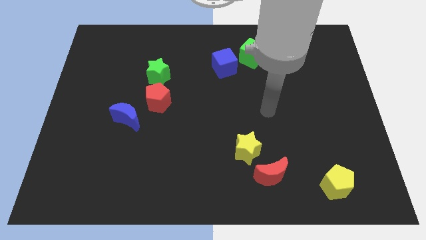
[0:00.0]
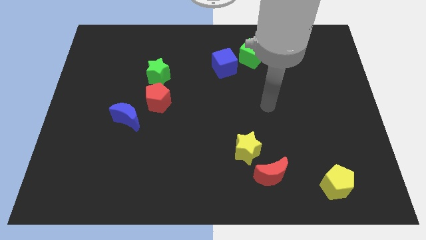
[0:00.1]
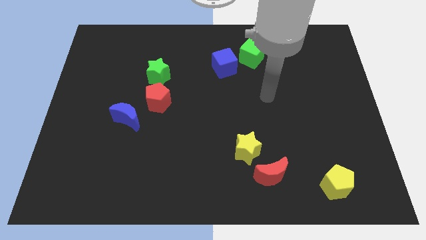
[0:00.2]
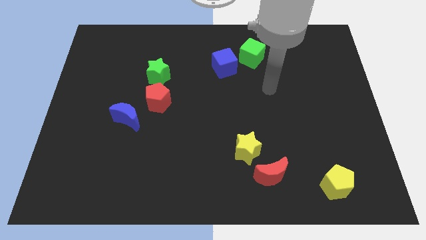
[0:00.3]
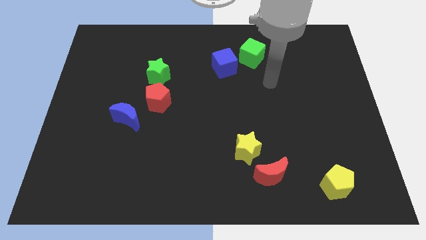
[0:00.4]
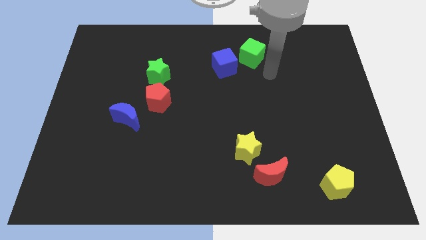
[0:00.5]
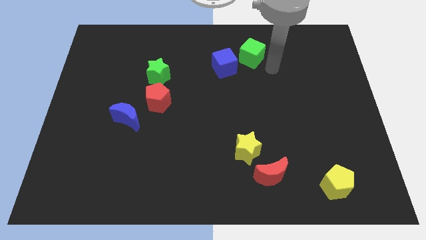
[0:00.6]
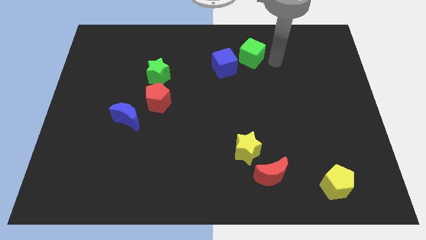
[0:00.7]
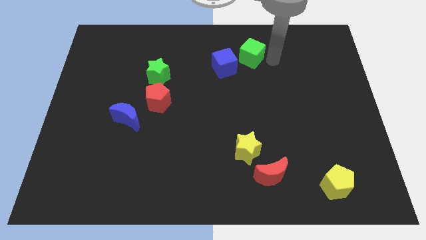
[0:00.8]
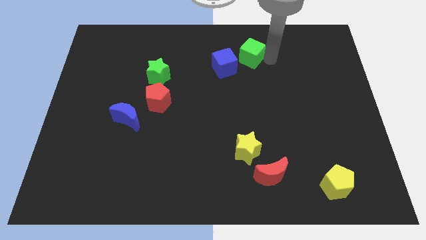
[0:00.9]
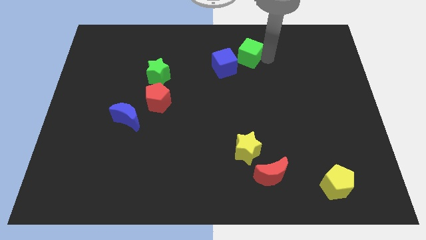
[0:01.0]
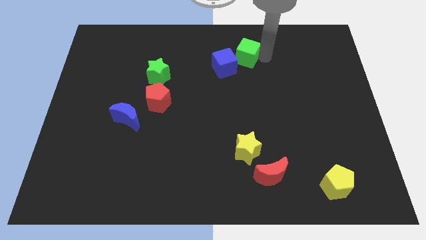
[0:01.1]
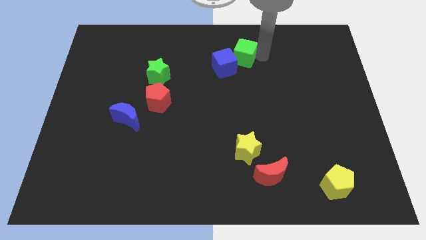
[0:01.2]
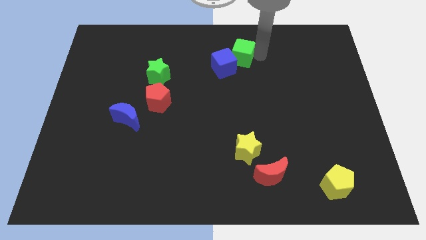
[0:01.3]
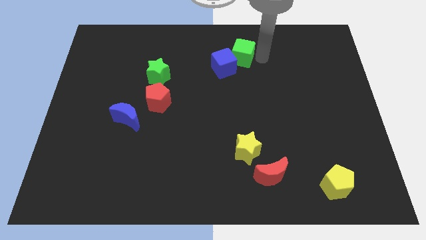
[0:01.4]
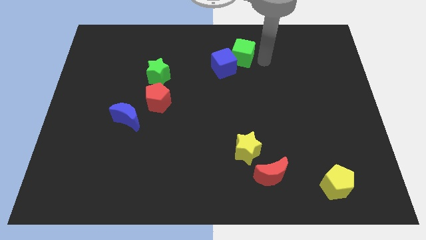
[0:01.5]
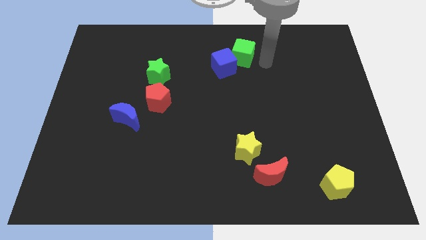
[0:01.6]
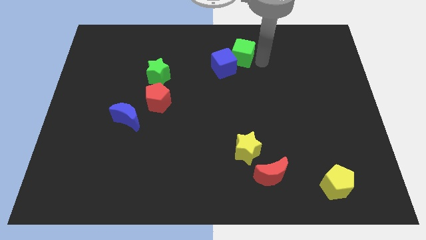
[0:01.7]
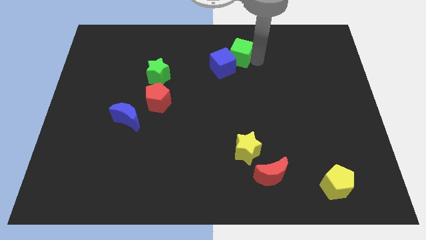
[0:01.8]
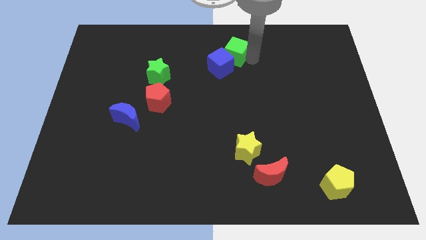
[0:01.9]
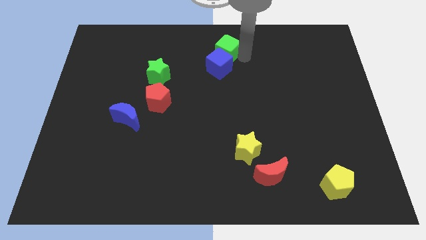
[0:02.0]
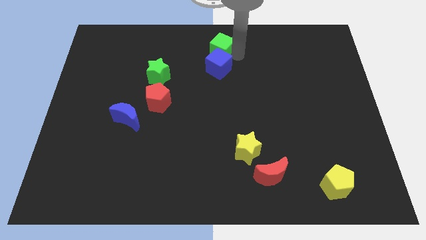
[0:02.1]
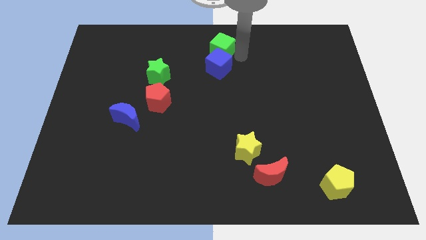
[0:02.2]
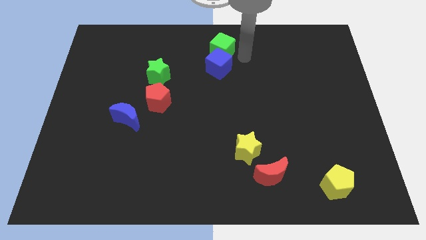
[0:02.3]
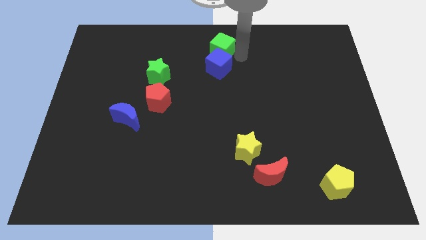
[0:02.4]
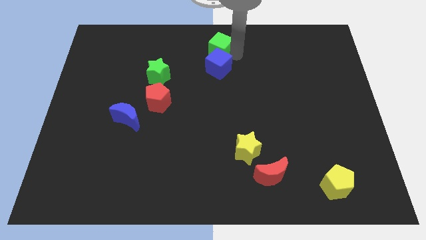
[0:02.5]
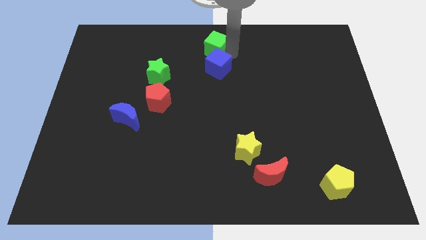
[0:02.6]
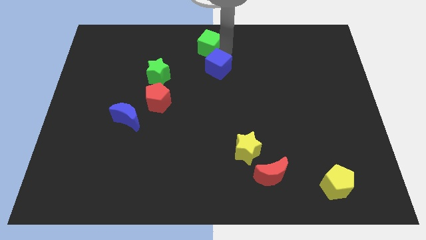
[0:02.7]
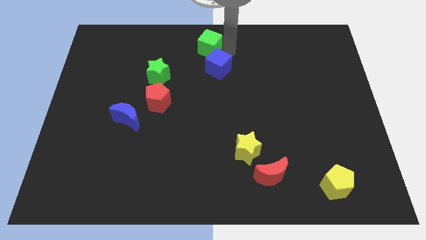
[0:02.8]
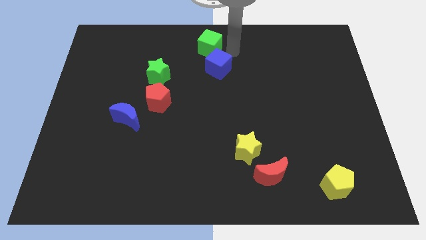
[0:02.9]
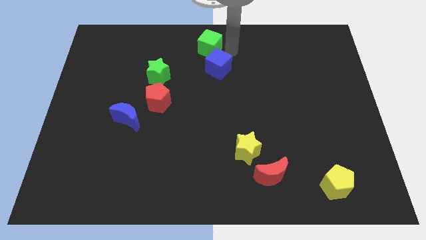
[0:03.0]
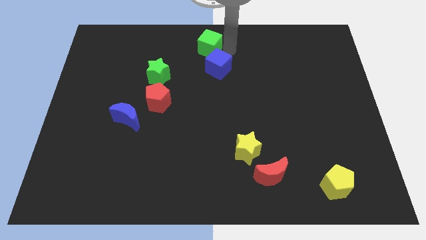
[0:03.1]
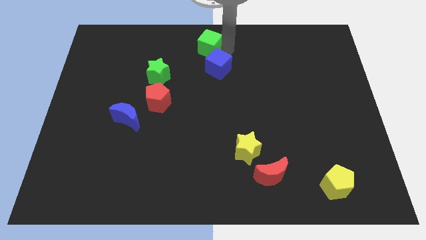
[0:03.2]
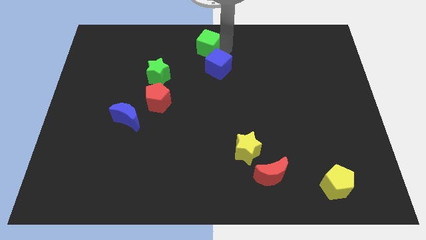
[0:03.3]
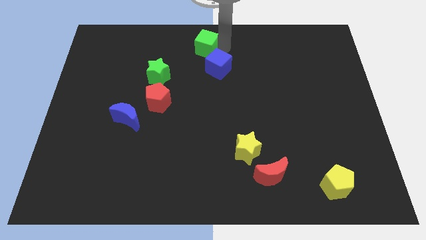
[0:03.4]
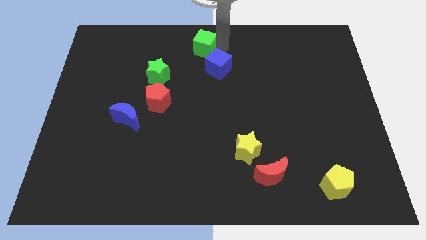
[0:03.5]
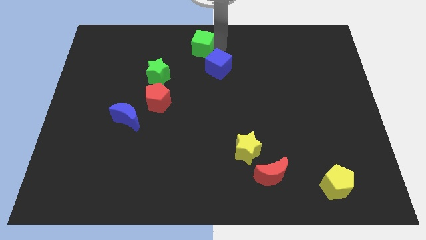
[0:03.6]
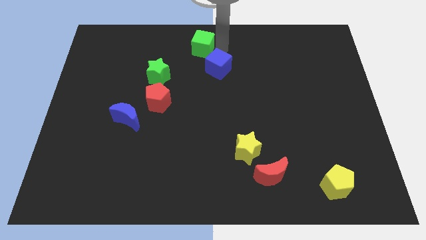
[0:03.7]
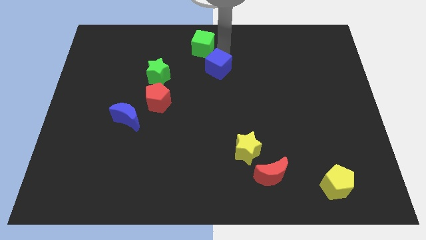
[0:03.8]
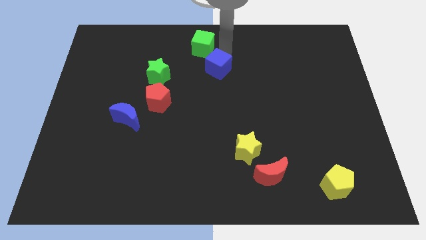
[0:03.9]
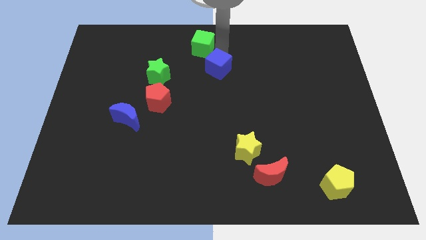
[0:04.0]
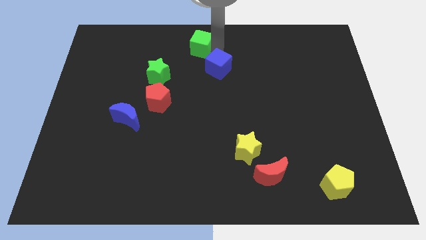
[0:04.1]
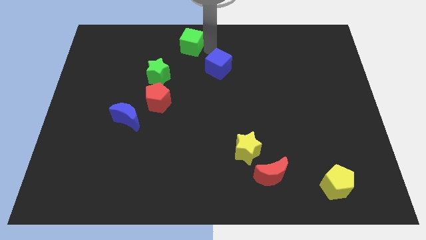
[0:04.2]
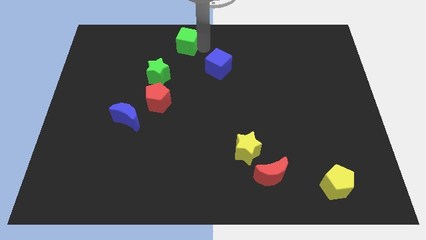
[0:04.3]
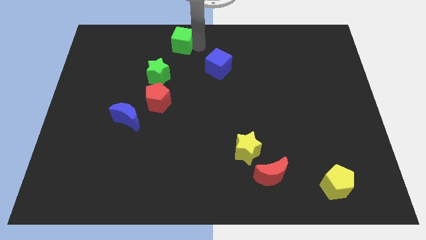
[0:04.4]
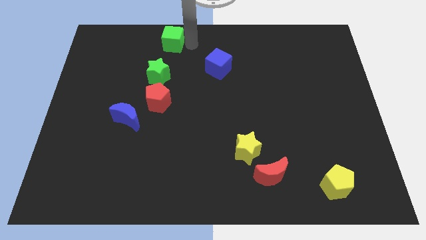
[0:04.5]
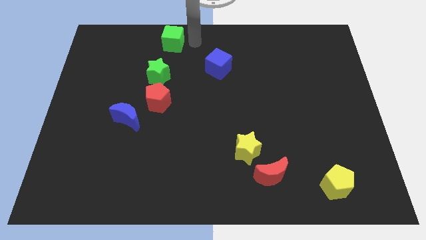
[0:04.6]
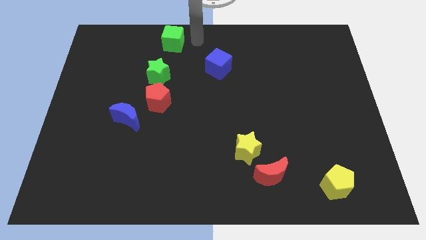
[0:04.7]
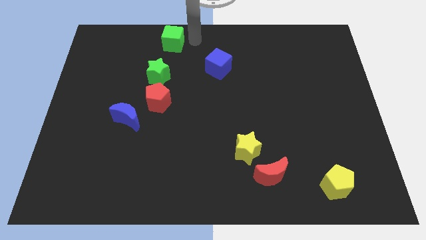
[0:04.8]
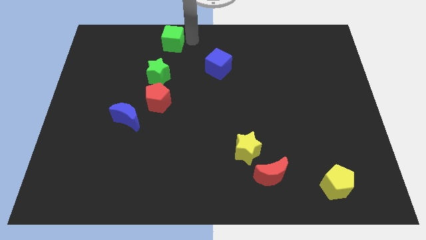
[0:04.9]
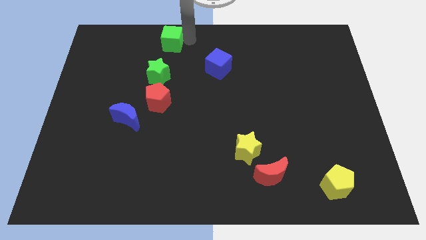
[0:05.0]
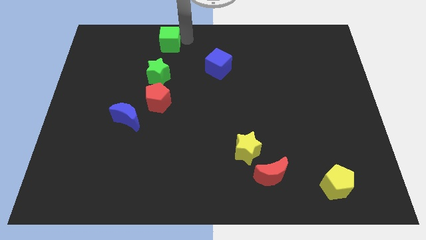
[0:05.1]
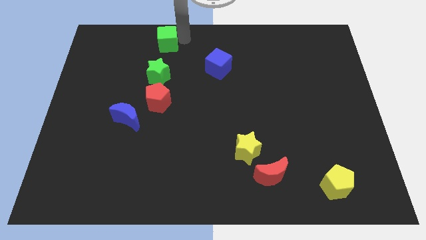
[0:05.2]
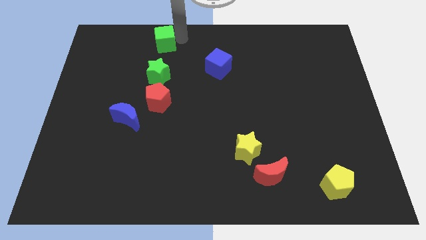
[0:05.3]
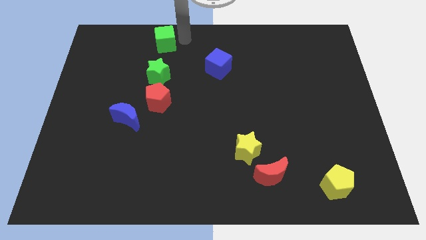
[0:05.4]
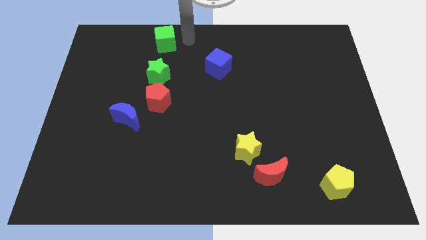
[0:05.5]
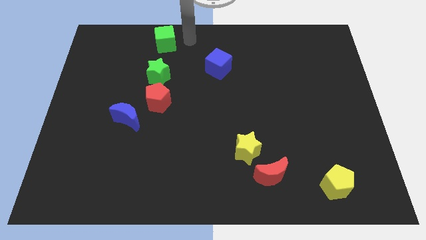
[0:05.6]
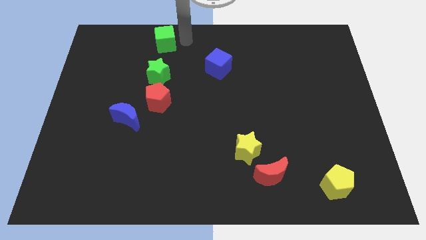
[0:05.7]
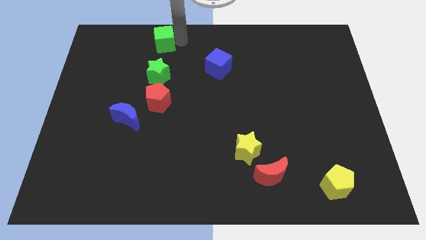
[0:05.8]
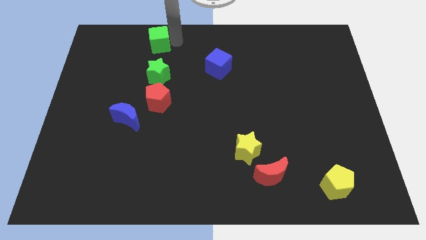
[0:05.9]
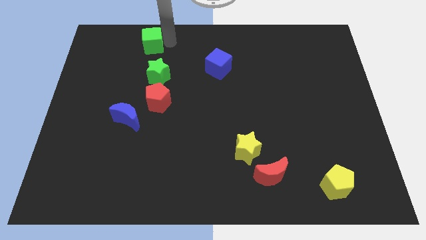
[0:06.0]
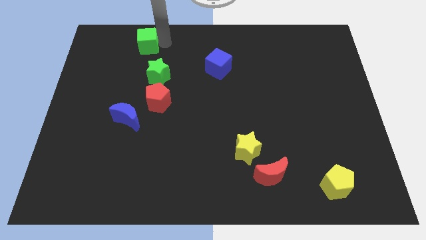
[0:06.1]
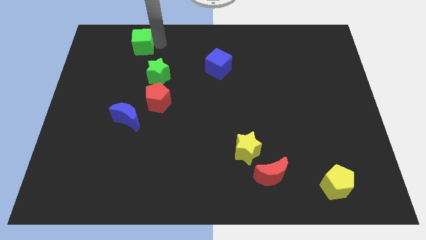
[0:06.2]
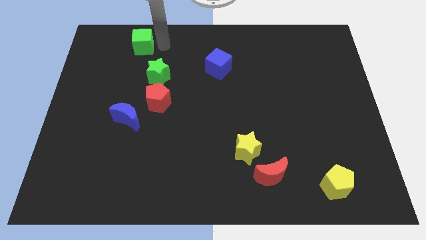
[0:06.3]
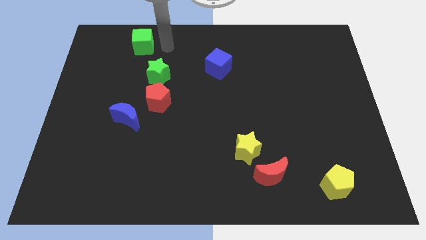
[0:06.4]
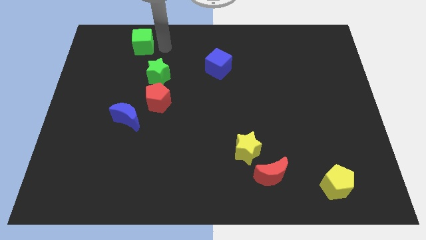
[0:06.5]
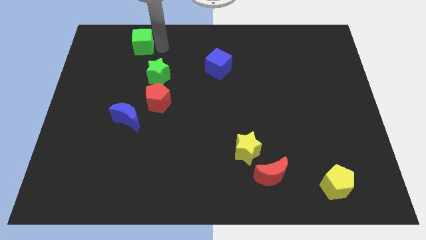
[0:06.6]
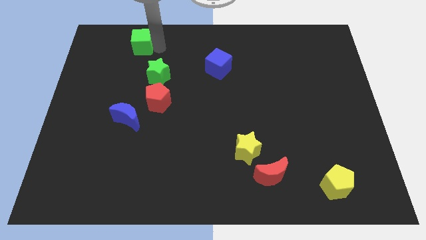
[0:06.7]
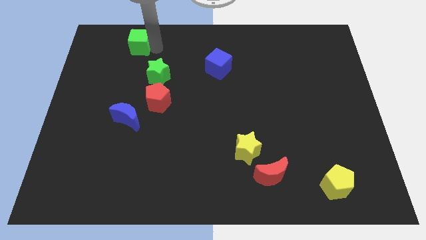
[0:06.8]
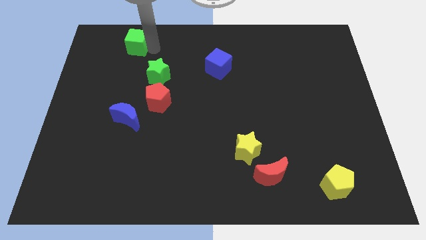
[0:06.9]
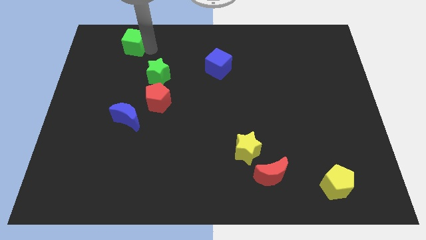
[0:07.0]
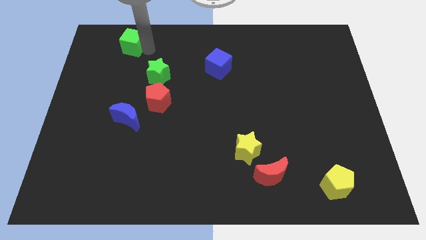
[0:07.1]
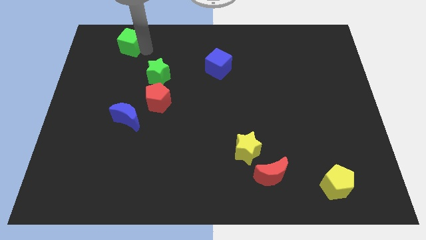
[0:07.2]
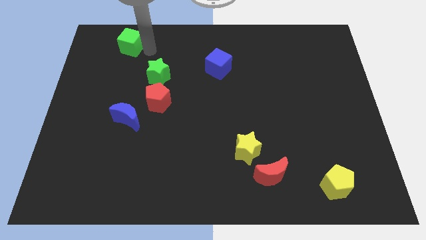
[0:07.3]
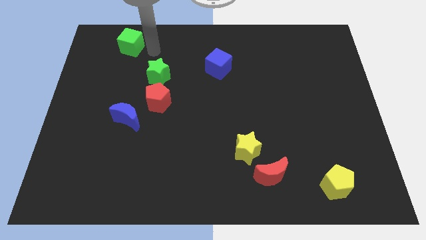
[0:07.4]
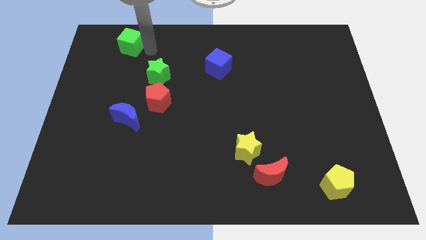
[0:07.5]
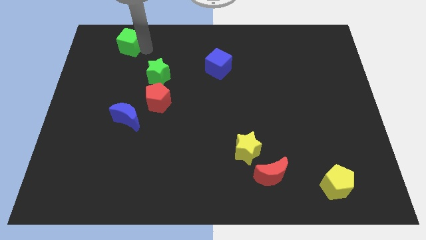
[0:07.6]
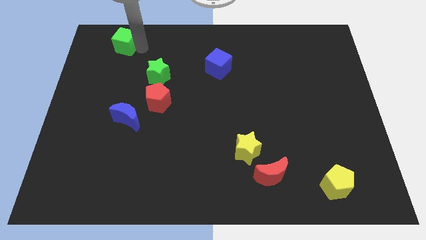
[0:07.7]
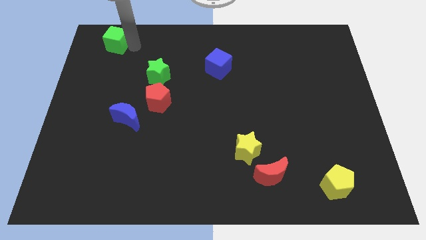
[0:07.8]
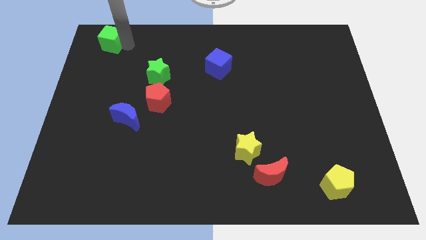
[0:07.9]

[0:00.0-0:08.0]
push the green cube to the top left corner
